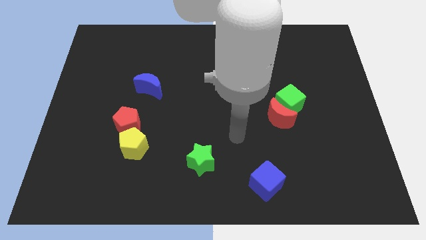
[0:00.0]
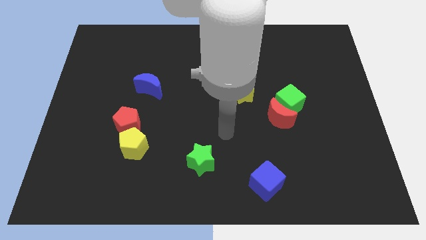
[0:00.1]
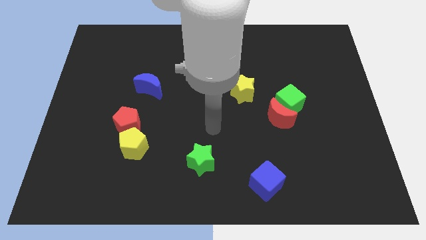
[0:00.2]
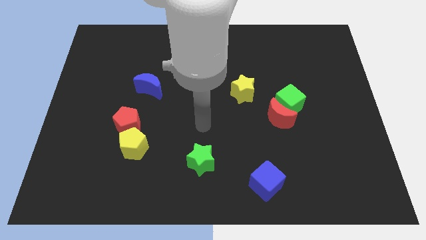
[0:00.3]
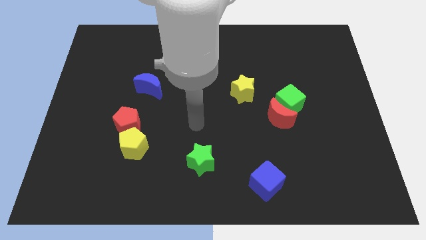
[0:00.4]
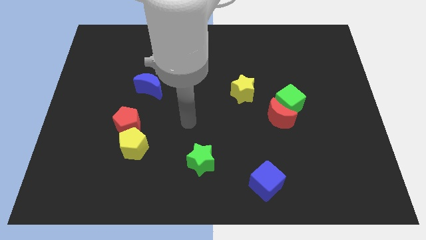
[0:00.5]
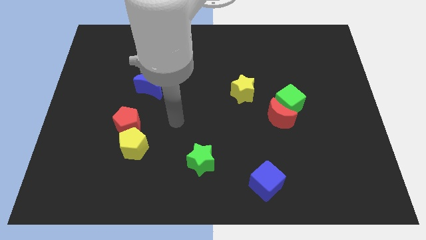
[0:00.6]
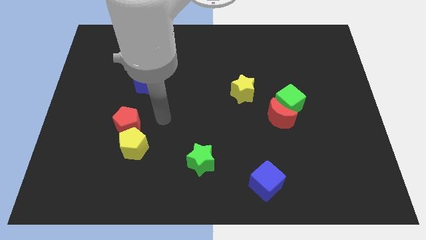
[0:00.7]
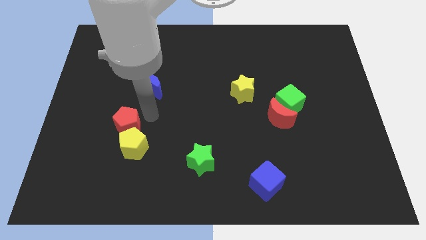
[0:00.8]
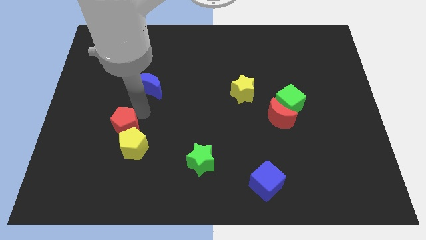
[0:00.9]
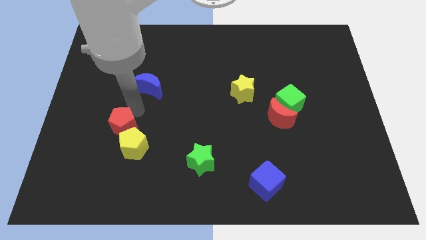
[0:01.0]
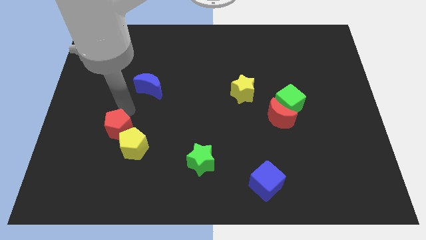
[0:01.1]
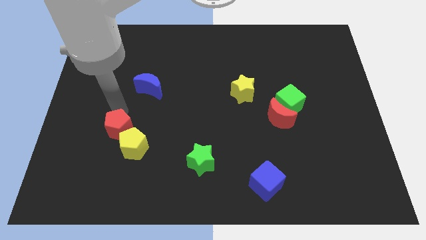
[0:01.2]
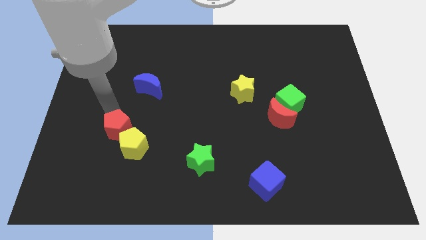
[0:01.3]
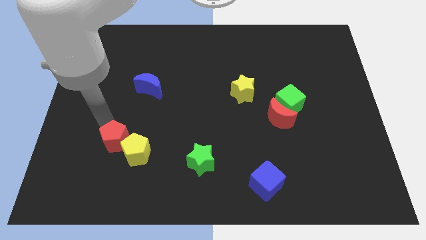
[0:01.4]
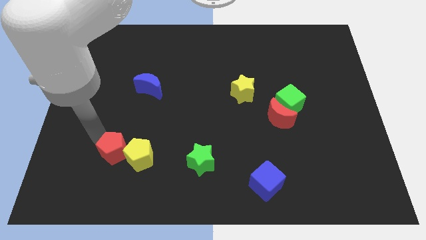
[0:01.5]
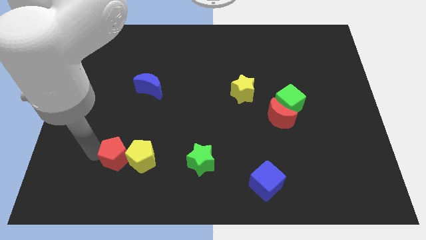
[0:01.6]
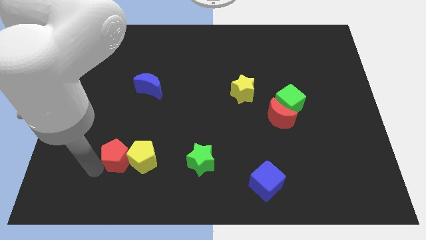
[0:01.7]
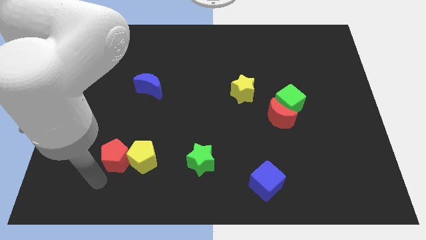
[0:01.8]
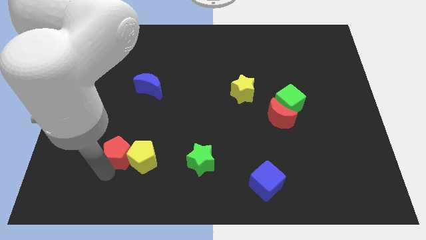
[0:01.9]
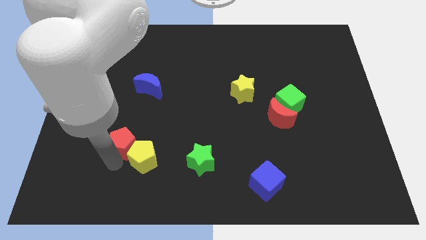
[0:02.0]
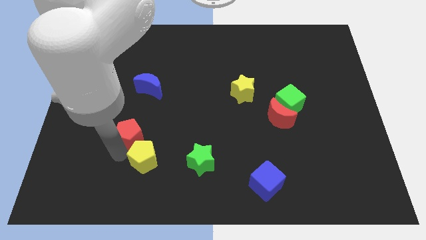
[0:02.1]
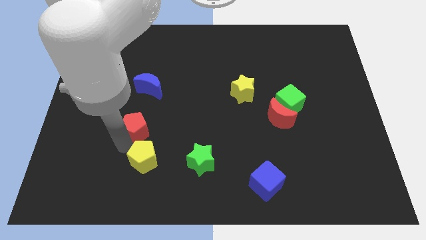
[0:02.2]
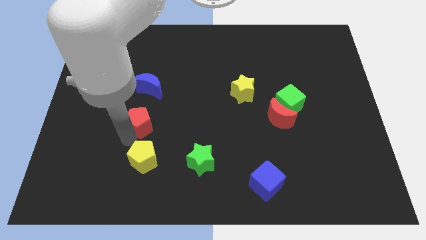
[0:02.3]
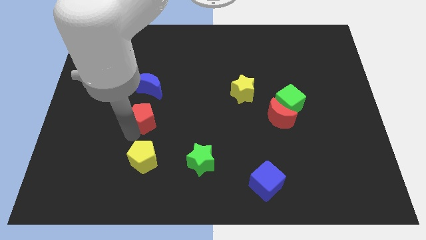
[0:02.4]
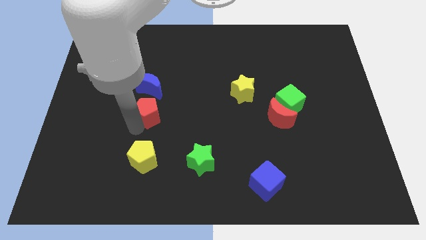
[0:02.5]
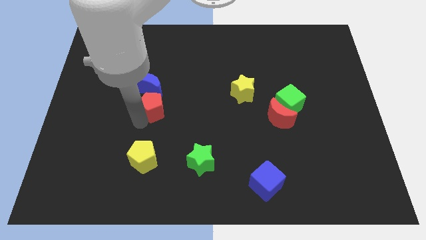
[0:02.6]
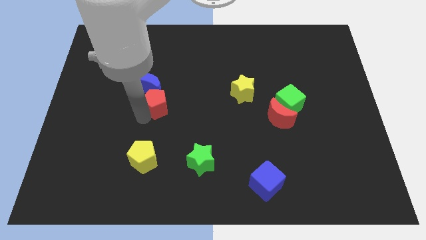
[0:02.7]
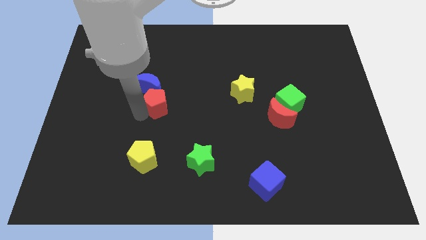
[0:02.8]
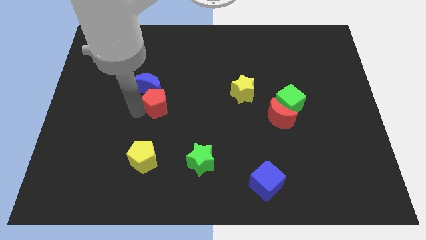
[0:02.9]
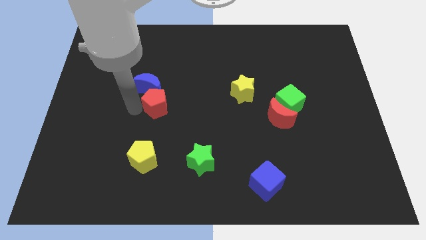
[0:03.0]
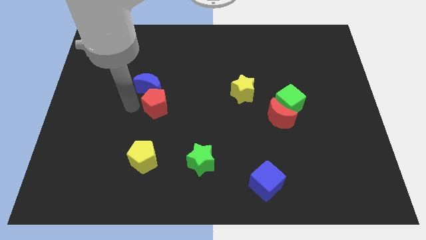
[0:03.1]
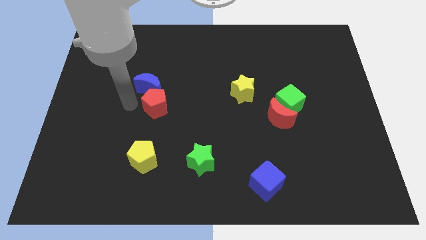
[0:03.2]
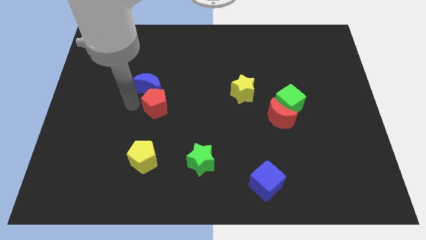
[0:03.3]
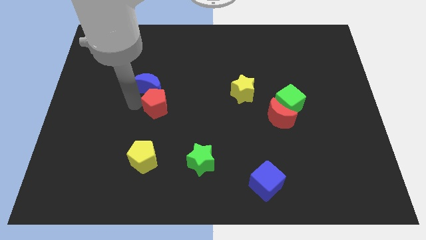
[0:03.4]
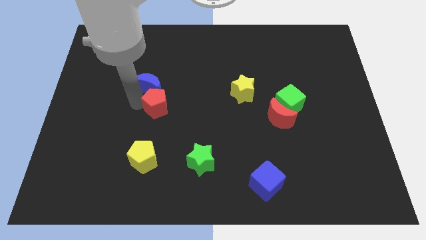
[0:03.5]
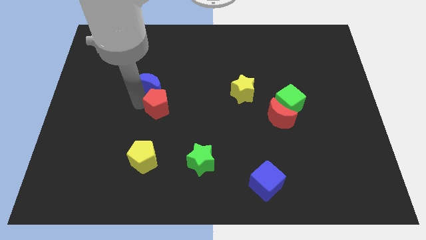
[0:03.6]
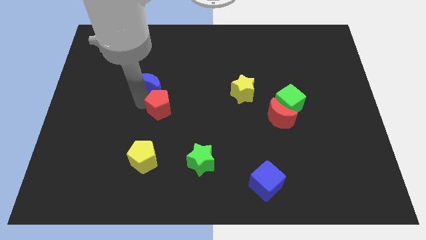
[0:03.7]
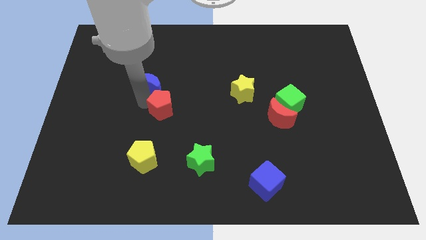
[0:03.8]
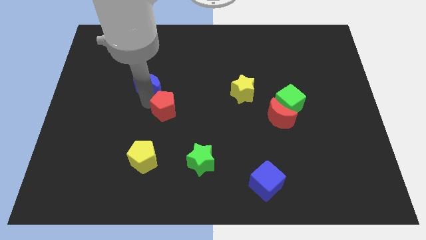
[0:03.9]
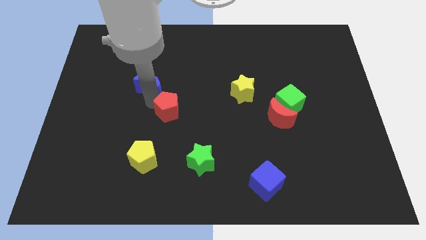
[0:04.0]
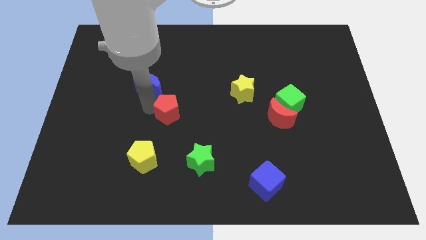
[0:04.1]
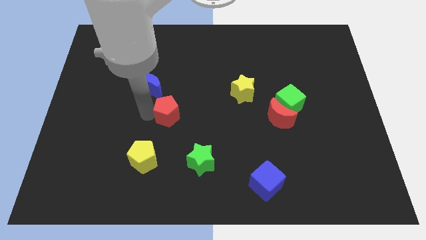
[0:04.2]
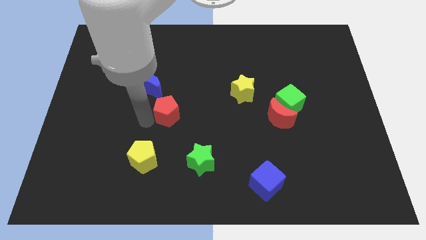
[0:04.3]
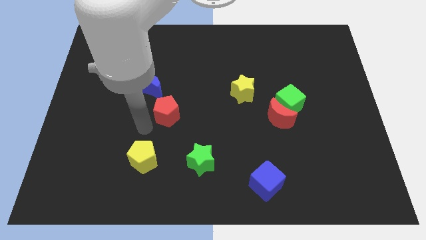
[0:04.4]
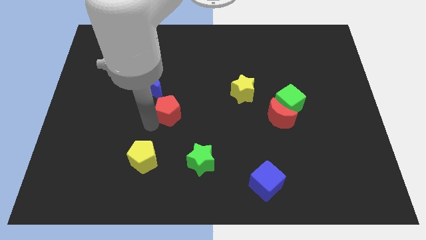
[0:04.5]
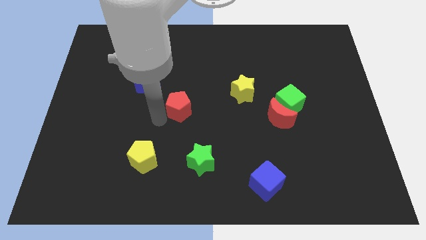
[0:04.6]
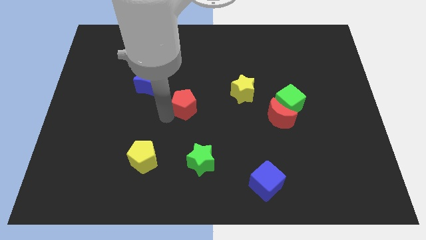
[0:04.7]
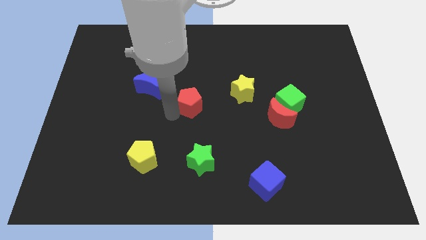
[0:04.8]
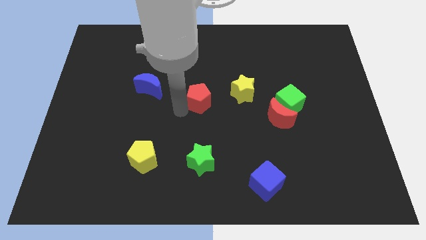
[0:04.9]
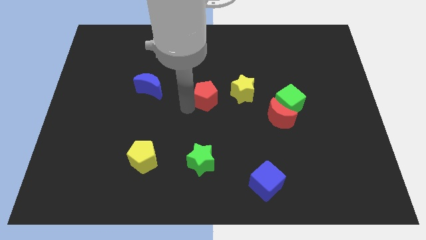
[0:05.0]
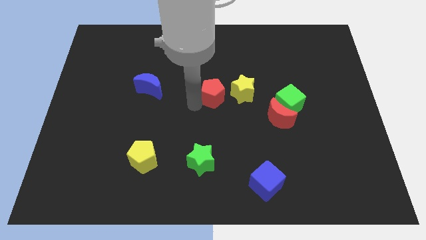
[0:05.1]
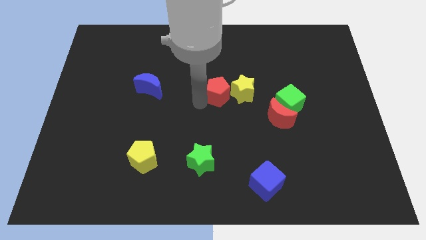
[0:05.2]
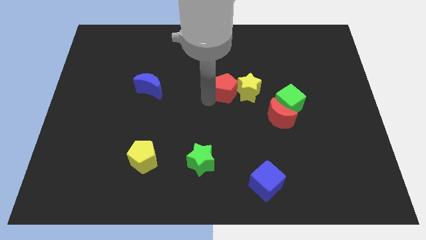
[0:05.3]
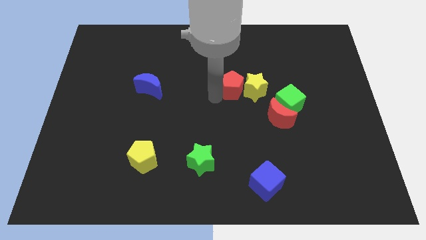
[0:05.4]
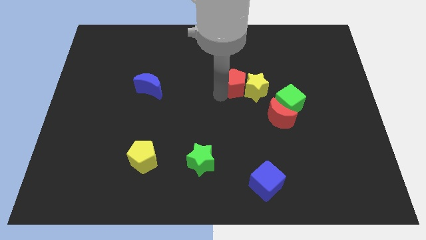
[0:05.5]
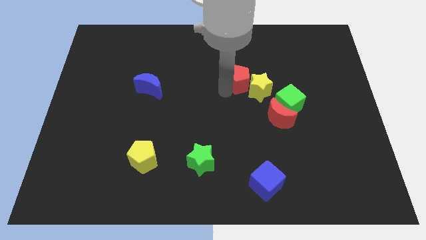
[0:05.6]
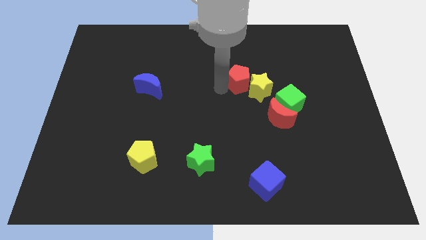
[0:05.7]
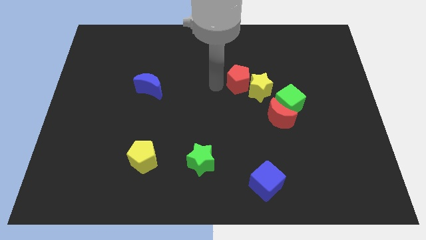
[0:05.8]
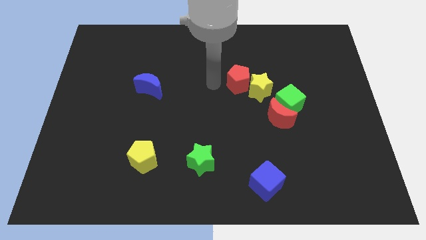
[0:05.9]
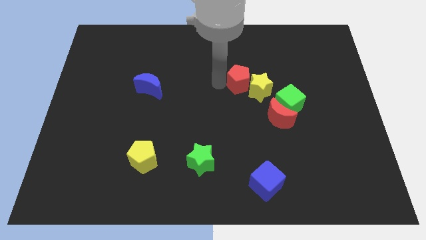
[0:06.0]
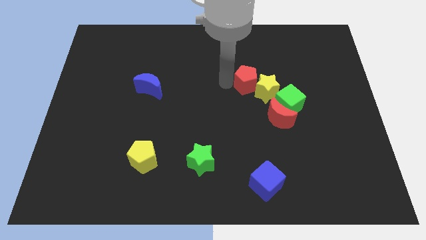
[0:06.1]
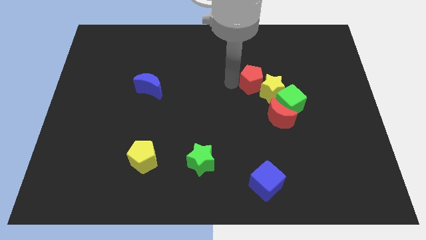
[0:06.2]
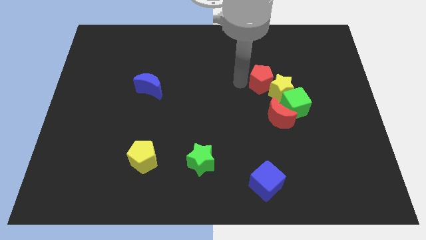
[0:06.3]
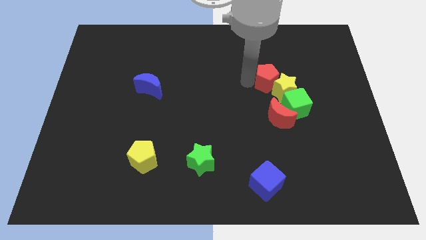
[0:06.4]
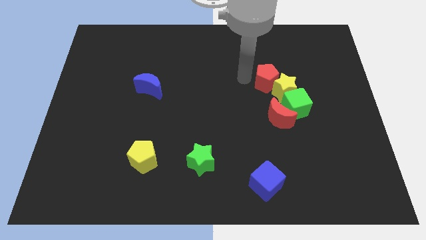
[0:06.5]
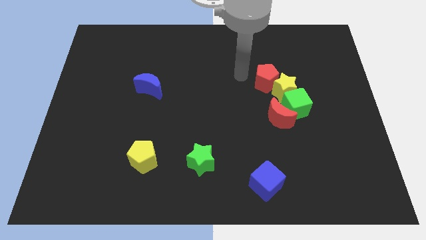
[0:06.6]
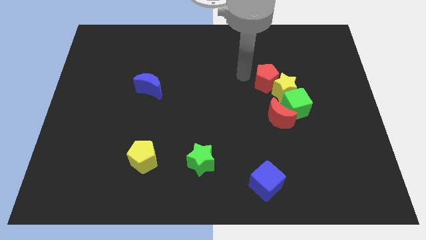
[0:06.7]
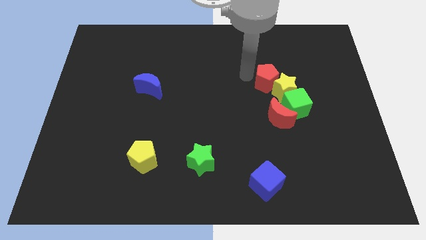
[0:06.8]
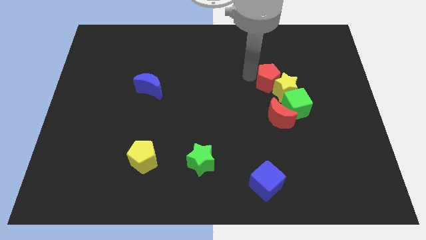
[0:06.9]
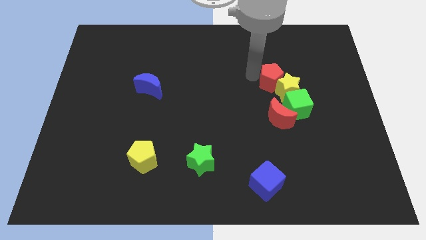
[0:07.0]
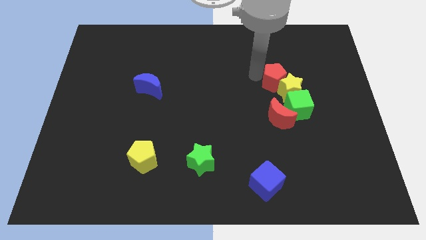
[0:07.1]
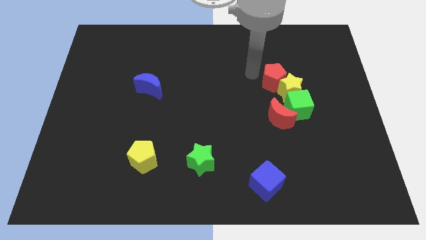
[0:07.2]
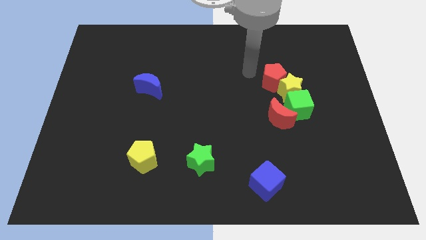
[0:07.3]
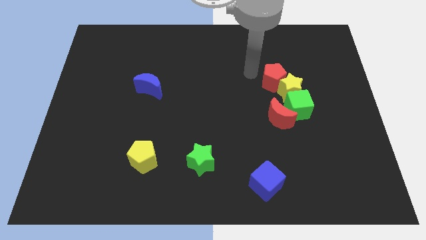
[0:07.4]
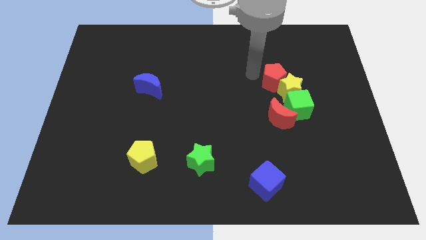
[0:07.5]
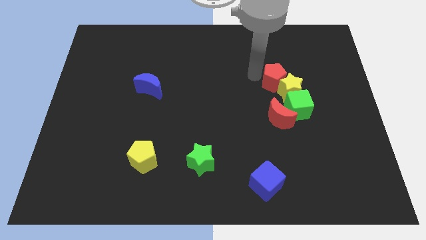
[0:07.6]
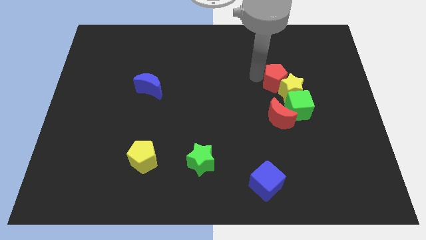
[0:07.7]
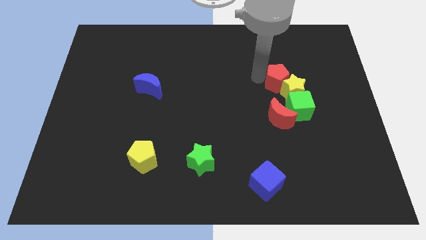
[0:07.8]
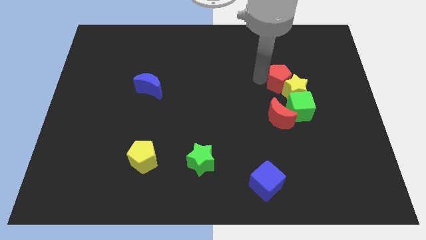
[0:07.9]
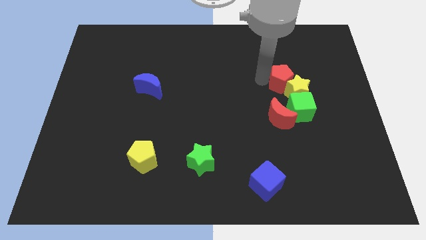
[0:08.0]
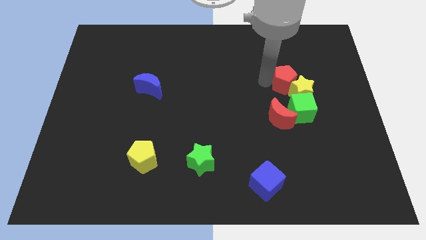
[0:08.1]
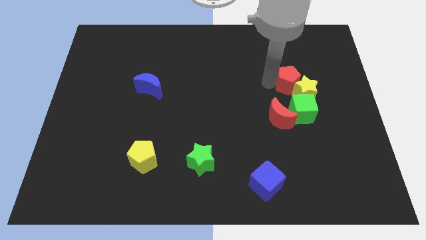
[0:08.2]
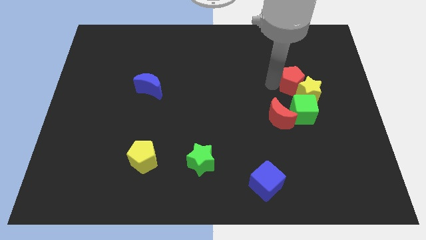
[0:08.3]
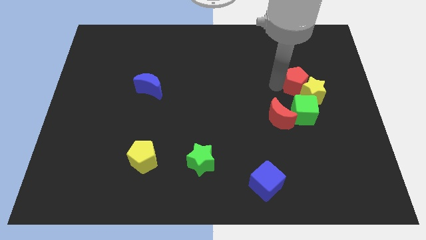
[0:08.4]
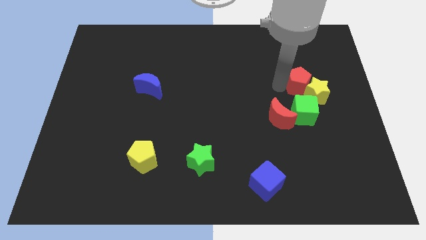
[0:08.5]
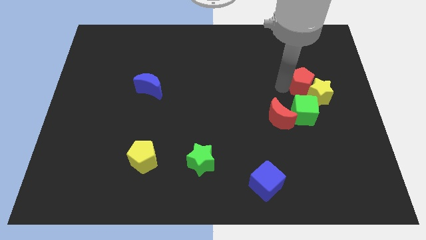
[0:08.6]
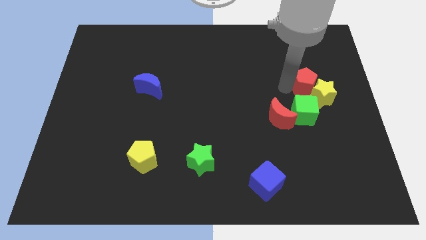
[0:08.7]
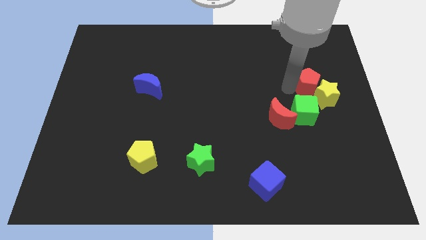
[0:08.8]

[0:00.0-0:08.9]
put the red pentagon to the top right side of the green cube
